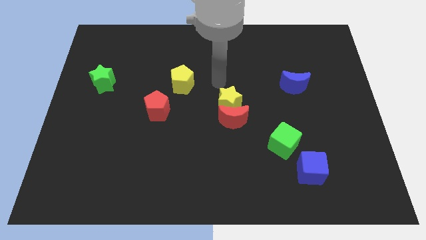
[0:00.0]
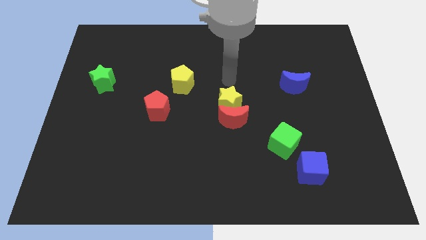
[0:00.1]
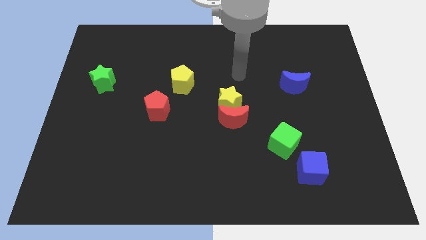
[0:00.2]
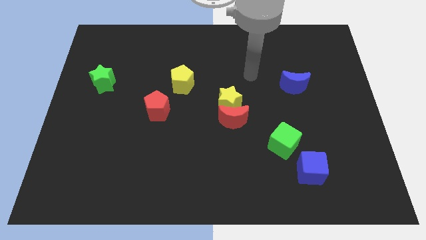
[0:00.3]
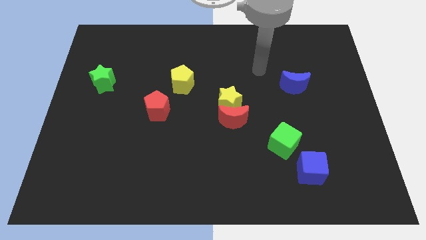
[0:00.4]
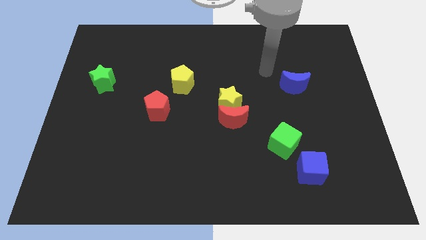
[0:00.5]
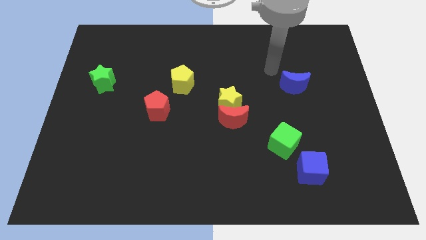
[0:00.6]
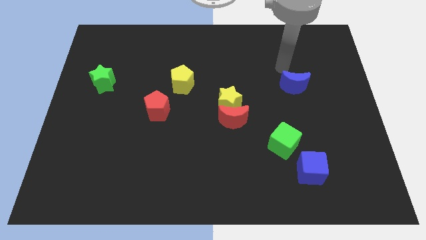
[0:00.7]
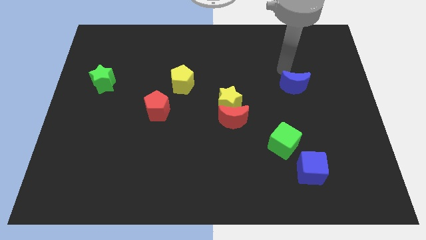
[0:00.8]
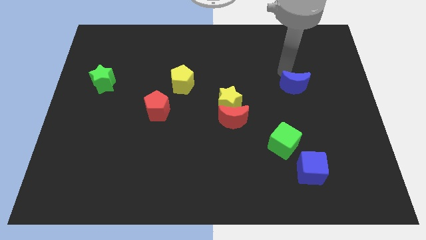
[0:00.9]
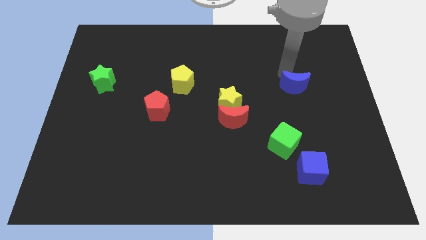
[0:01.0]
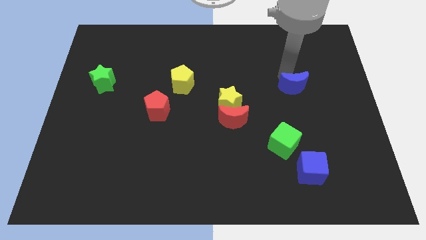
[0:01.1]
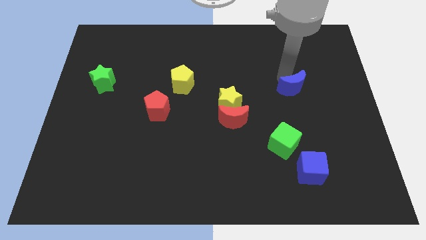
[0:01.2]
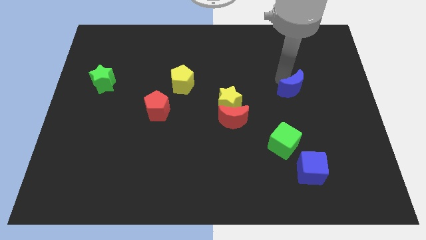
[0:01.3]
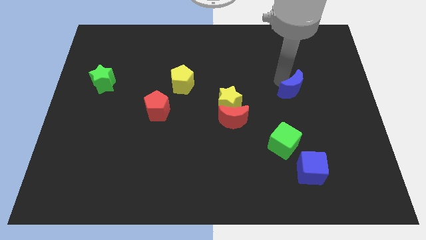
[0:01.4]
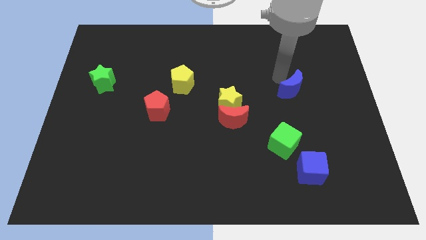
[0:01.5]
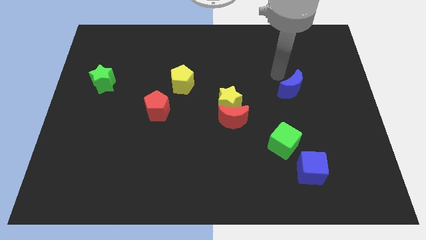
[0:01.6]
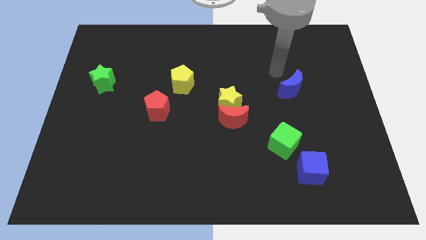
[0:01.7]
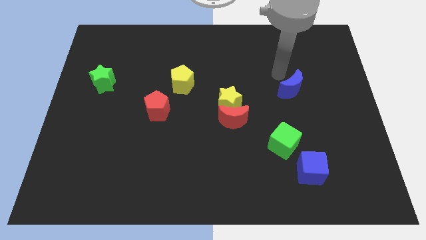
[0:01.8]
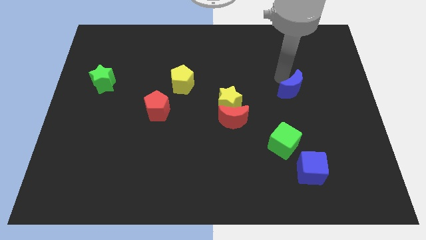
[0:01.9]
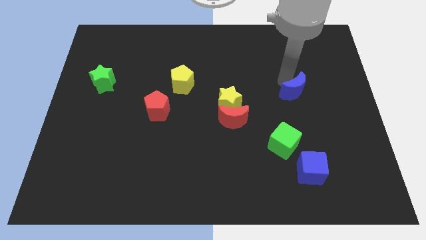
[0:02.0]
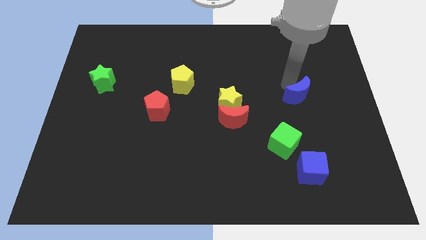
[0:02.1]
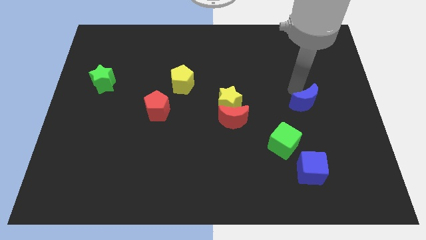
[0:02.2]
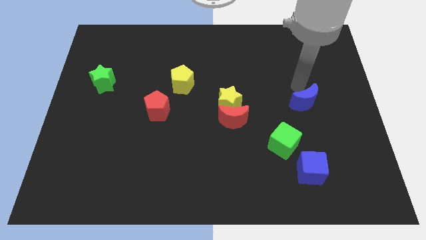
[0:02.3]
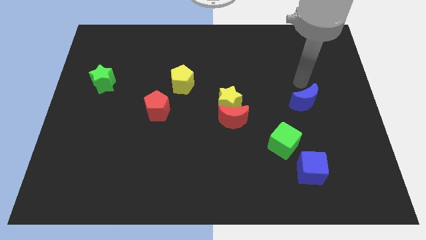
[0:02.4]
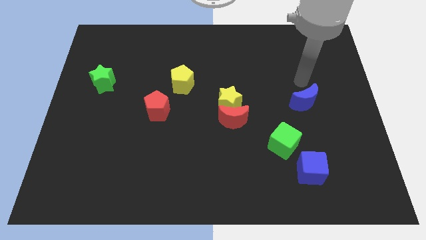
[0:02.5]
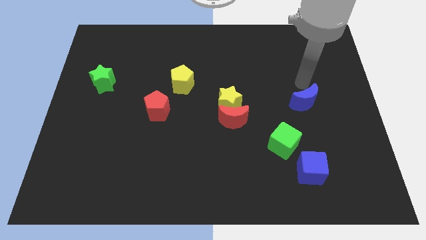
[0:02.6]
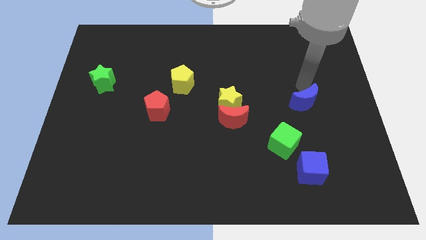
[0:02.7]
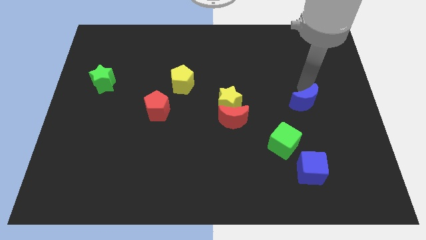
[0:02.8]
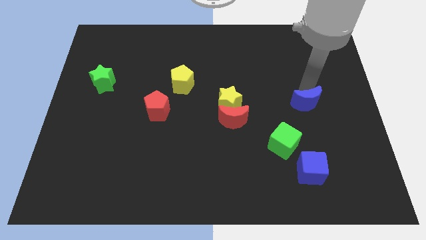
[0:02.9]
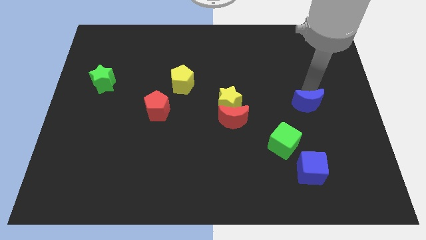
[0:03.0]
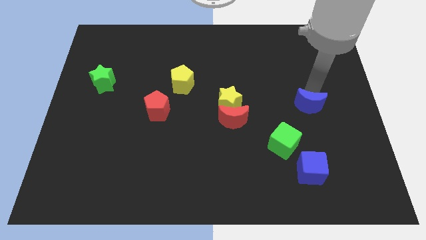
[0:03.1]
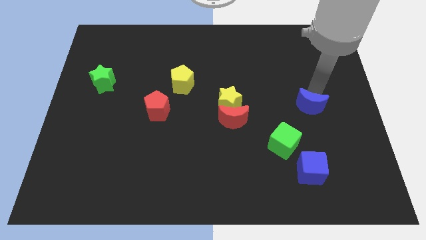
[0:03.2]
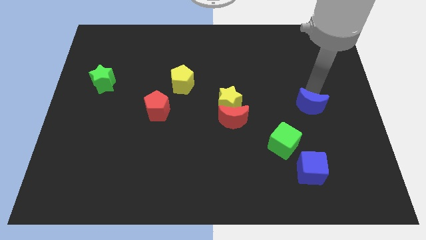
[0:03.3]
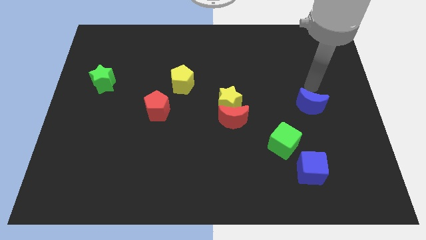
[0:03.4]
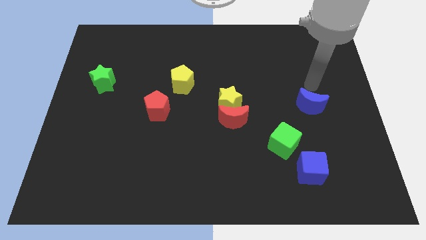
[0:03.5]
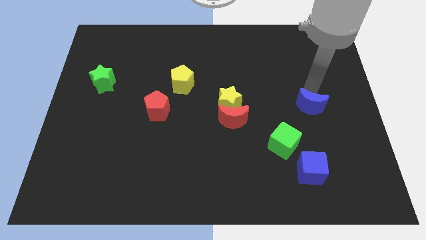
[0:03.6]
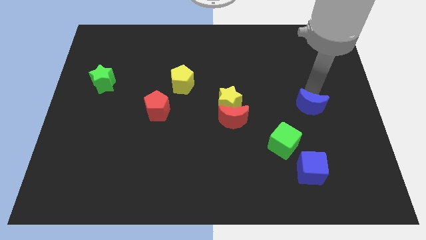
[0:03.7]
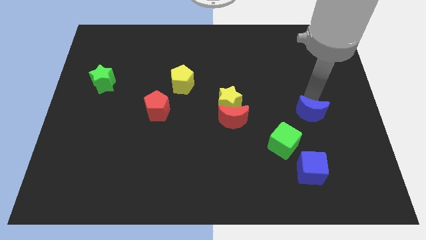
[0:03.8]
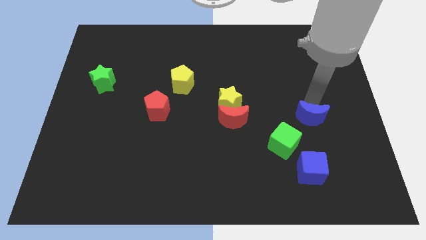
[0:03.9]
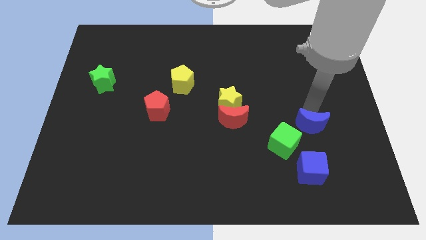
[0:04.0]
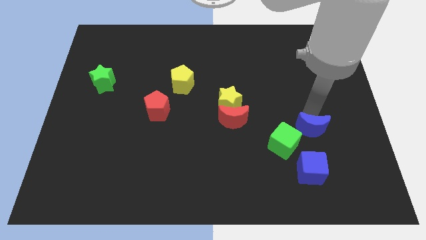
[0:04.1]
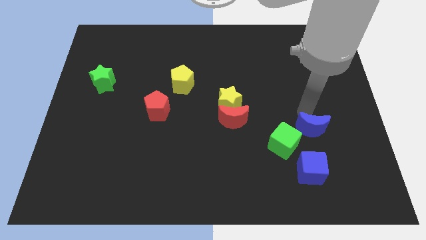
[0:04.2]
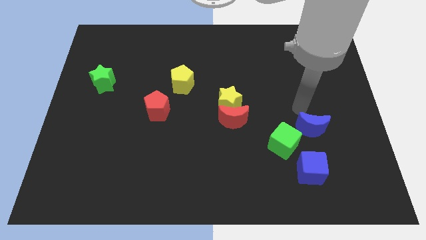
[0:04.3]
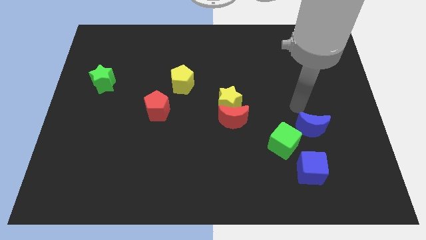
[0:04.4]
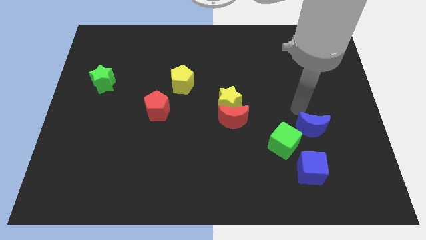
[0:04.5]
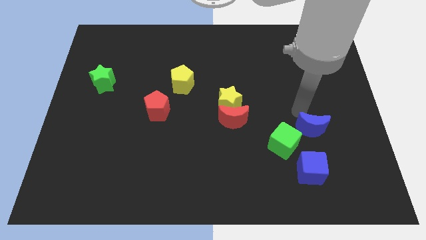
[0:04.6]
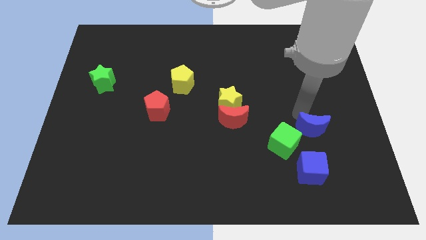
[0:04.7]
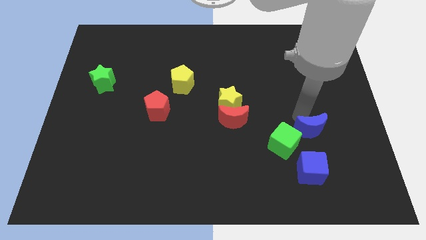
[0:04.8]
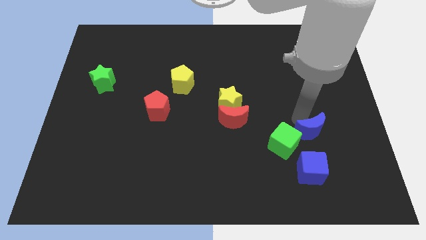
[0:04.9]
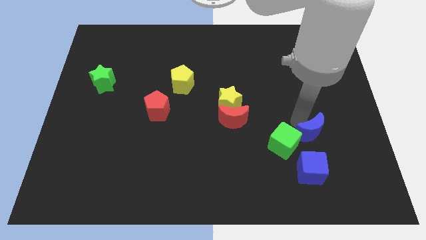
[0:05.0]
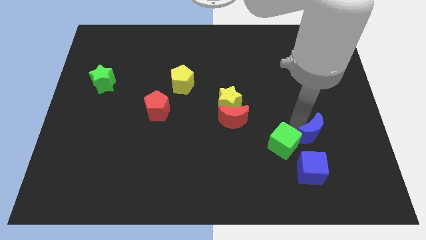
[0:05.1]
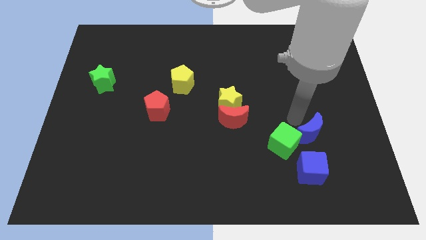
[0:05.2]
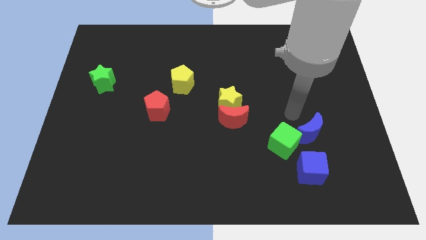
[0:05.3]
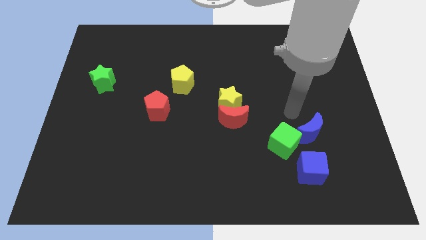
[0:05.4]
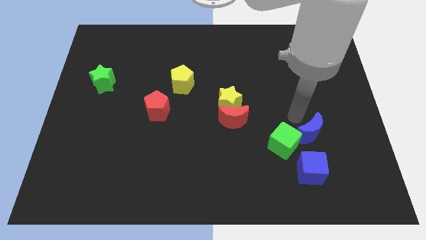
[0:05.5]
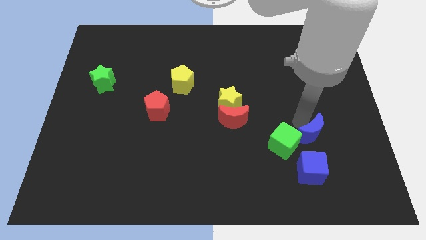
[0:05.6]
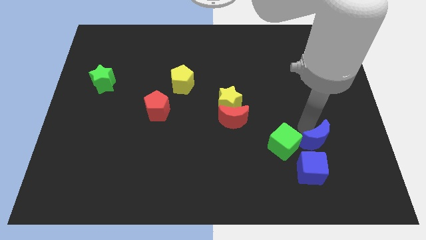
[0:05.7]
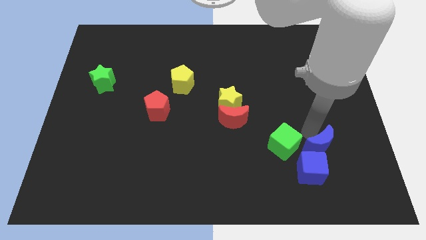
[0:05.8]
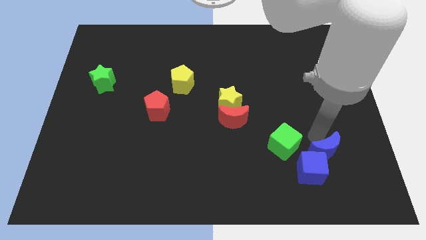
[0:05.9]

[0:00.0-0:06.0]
push the blue moon next to the blue cube

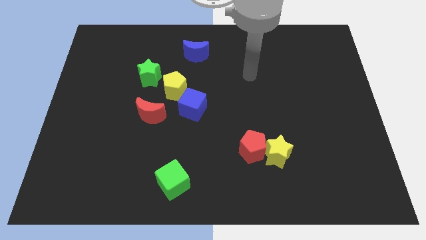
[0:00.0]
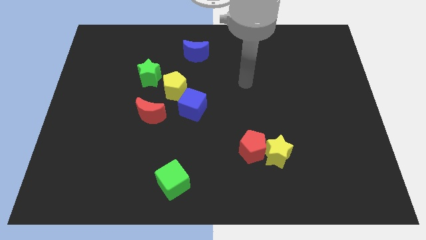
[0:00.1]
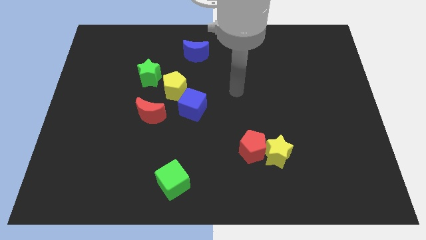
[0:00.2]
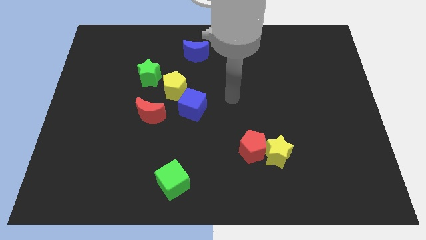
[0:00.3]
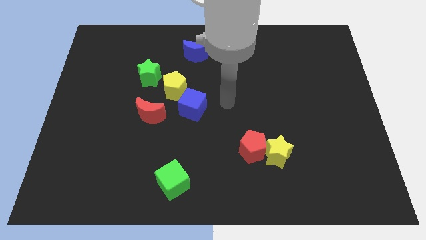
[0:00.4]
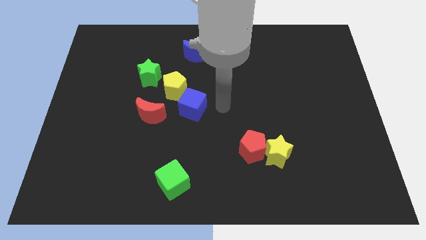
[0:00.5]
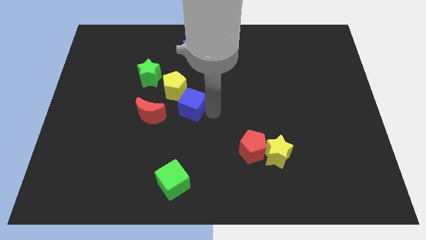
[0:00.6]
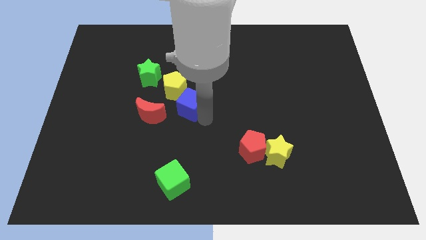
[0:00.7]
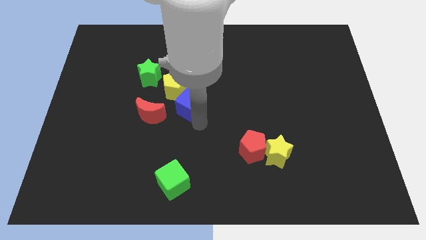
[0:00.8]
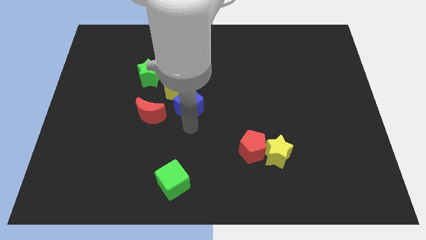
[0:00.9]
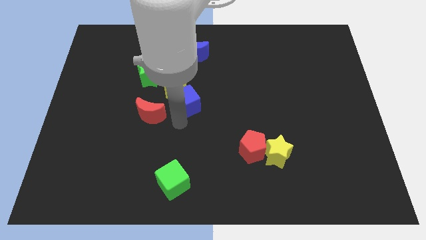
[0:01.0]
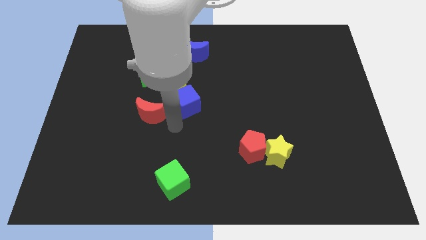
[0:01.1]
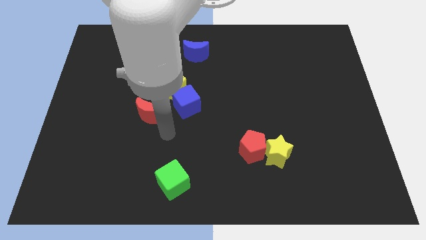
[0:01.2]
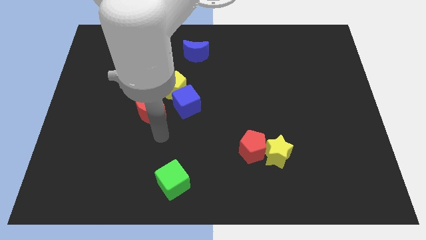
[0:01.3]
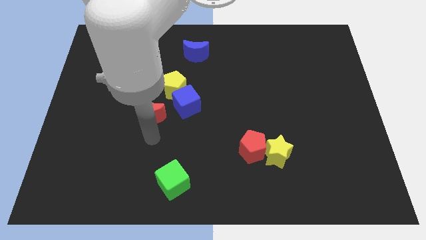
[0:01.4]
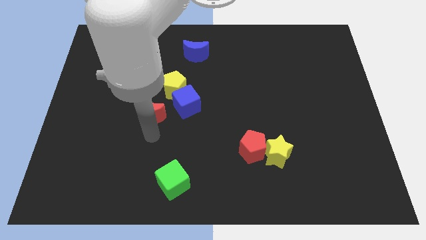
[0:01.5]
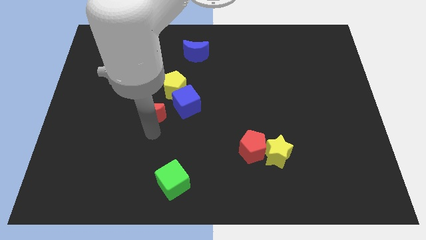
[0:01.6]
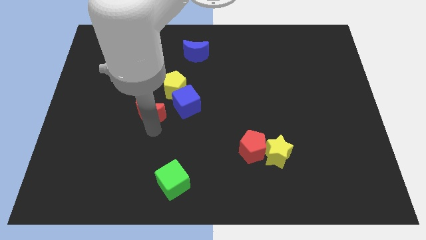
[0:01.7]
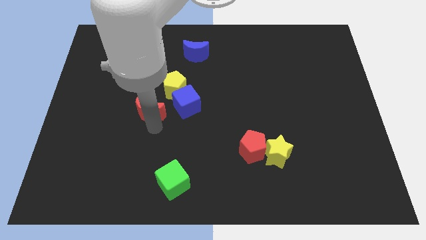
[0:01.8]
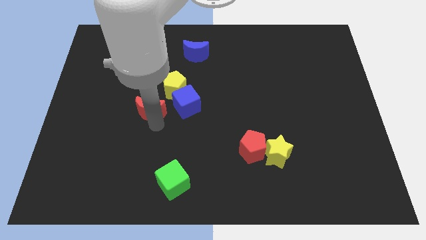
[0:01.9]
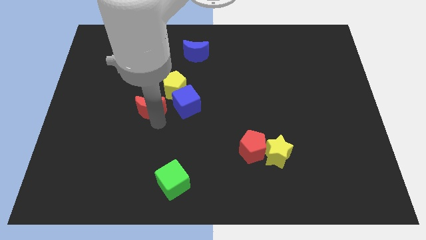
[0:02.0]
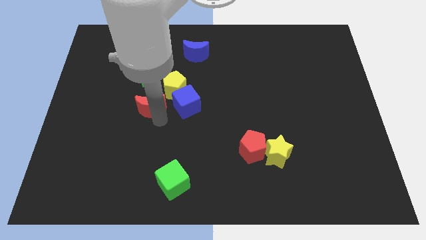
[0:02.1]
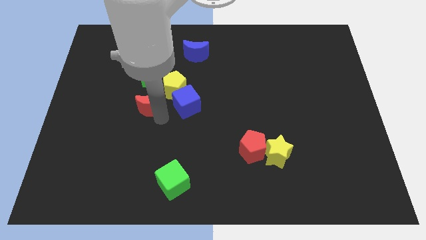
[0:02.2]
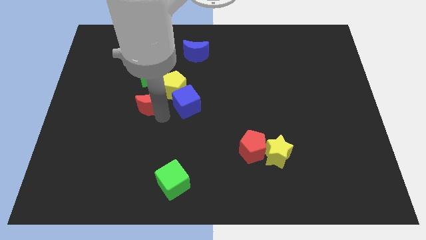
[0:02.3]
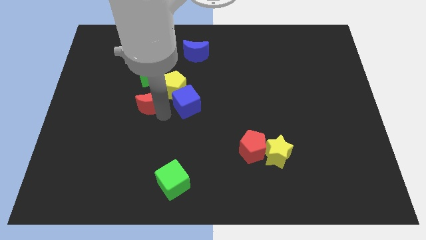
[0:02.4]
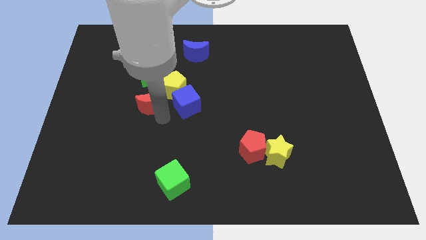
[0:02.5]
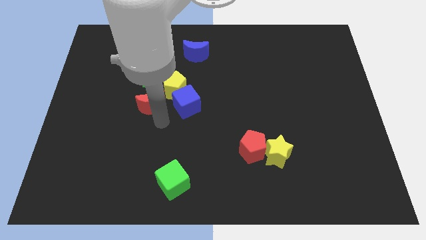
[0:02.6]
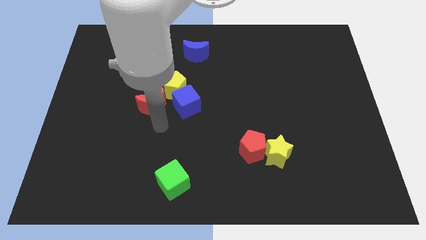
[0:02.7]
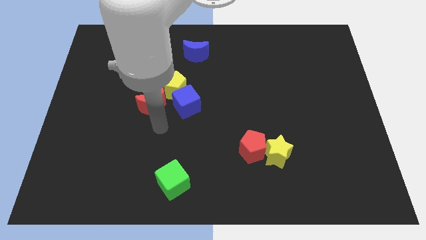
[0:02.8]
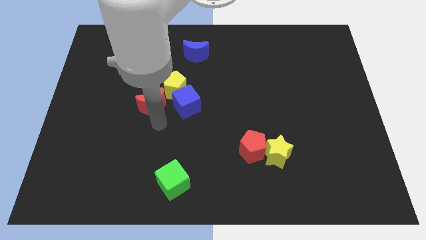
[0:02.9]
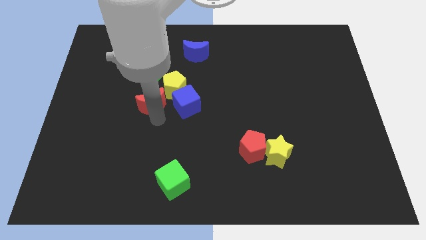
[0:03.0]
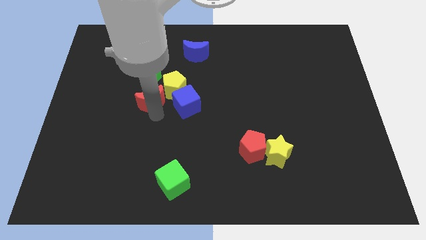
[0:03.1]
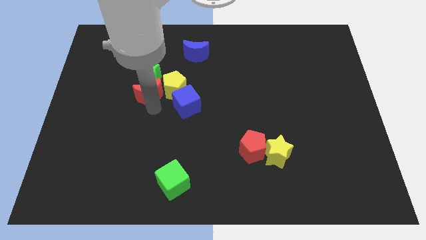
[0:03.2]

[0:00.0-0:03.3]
move the red moon close to the green star
